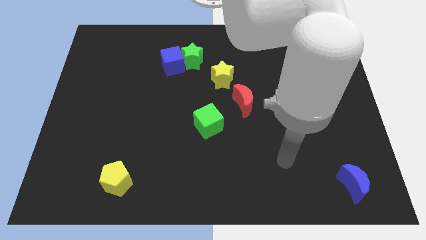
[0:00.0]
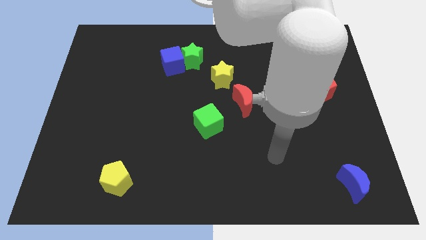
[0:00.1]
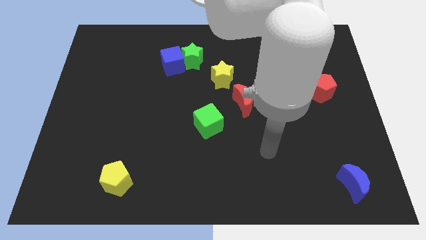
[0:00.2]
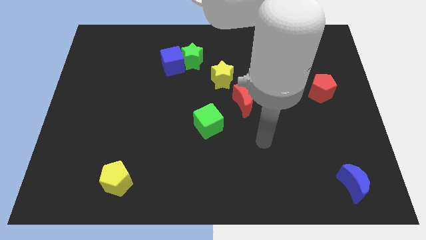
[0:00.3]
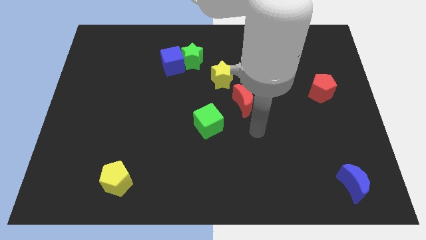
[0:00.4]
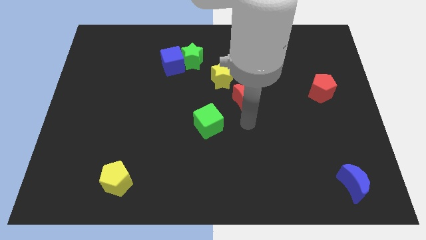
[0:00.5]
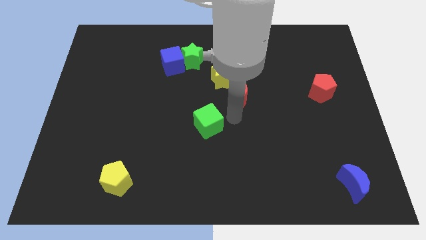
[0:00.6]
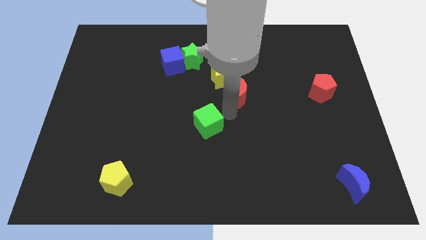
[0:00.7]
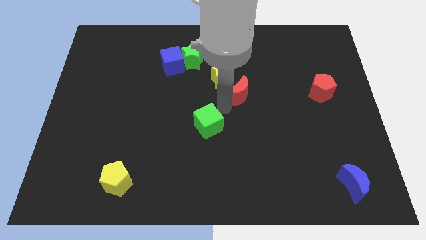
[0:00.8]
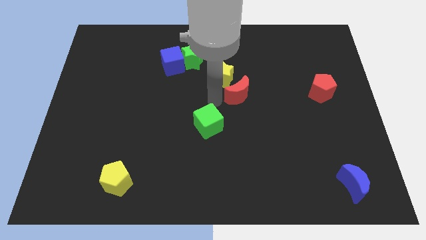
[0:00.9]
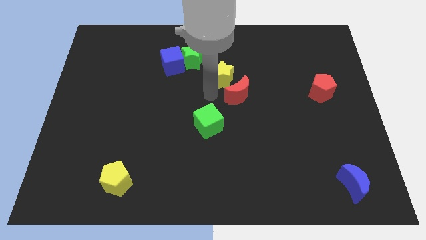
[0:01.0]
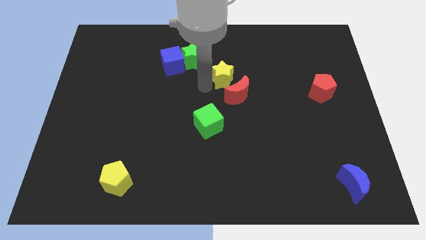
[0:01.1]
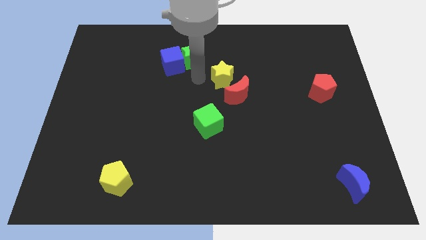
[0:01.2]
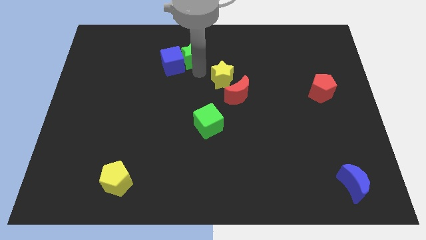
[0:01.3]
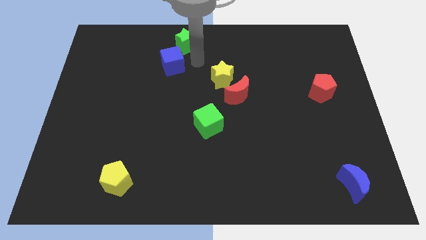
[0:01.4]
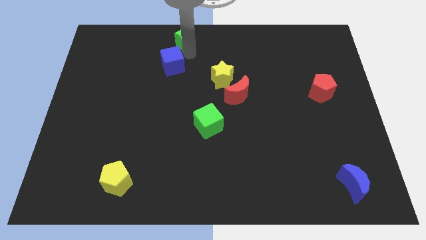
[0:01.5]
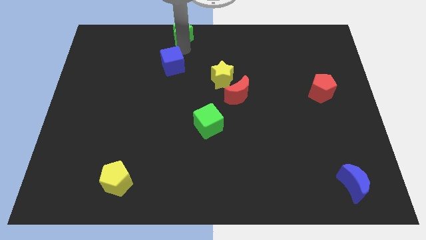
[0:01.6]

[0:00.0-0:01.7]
move the blue cube away from the green star

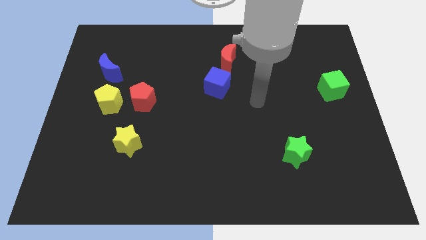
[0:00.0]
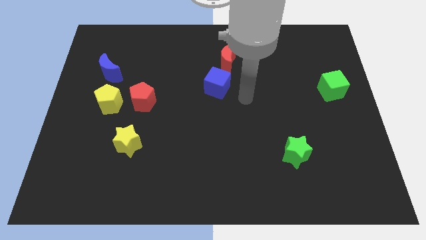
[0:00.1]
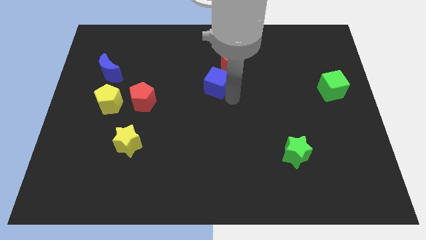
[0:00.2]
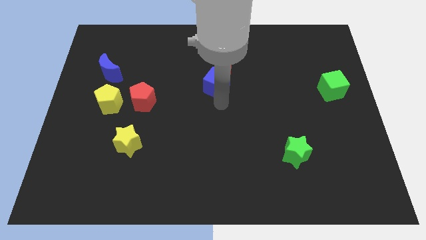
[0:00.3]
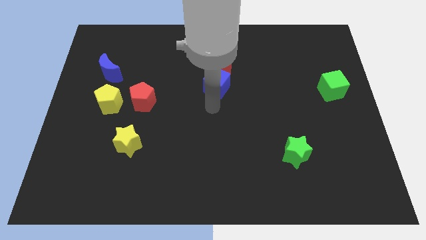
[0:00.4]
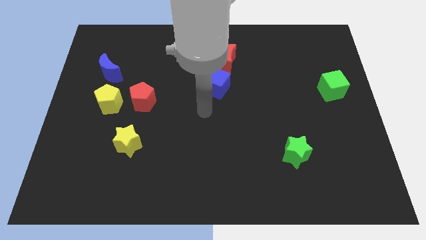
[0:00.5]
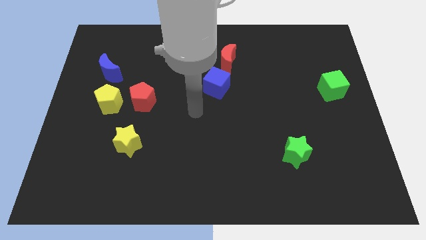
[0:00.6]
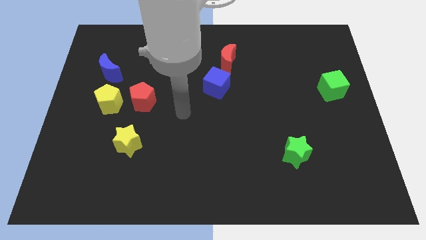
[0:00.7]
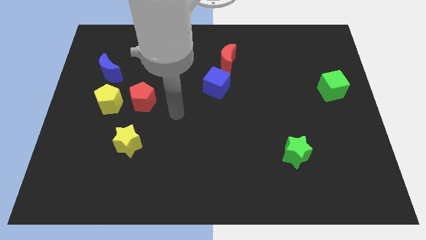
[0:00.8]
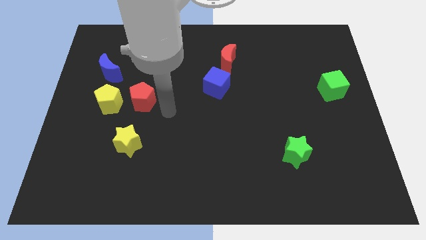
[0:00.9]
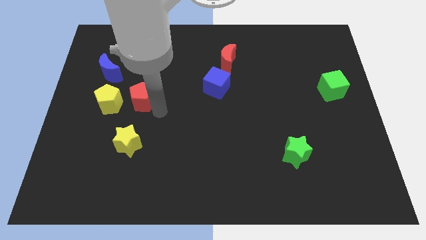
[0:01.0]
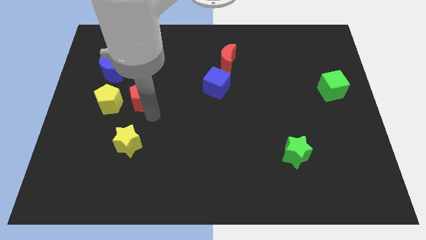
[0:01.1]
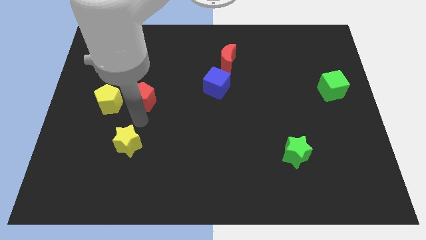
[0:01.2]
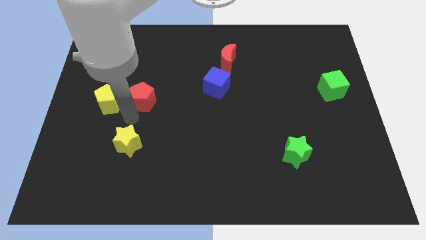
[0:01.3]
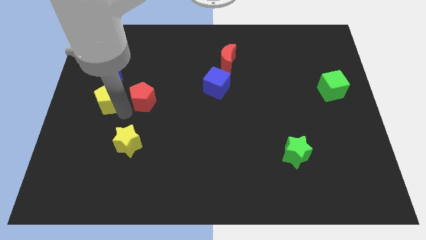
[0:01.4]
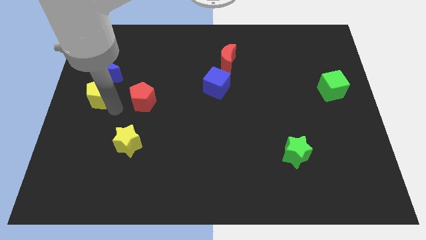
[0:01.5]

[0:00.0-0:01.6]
pull the red pentagon apart from the yellow pentagon

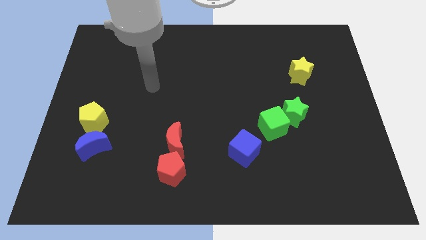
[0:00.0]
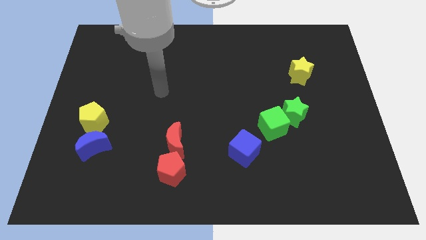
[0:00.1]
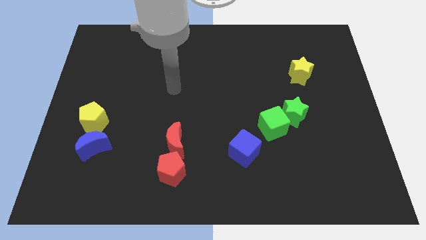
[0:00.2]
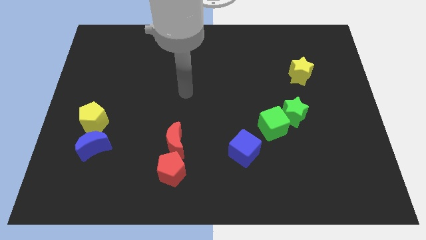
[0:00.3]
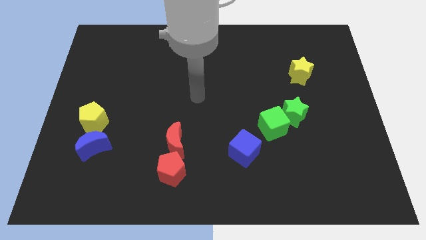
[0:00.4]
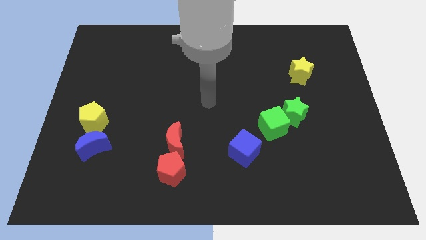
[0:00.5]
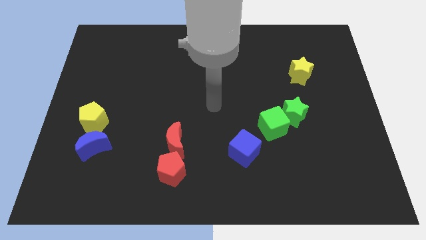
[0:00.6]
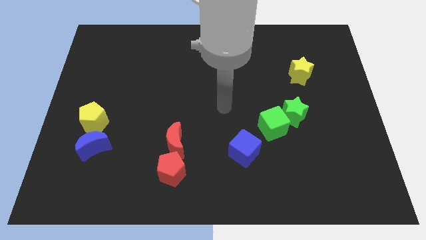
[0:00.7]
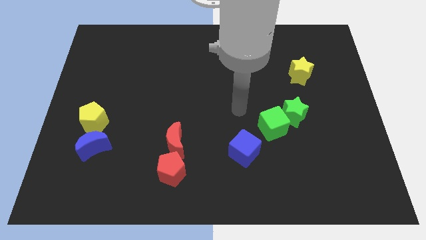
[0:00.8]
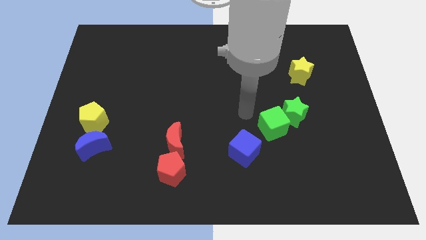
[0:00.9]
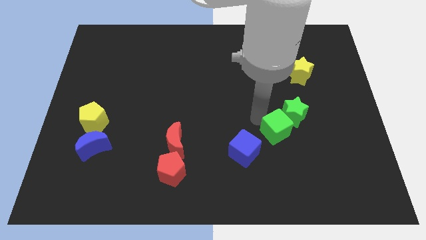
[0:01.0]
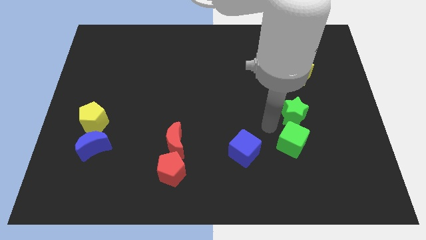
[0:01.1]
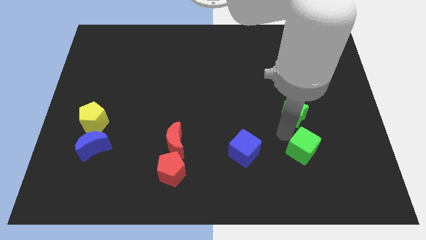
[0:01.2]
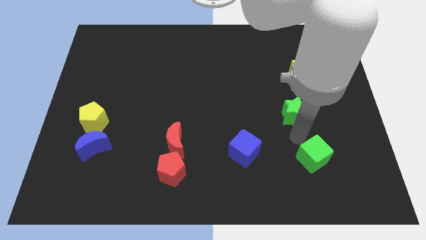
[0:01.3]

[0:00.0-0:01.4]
pull the green star apart from the green cube

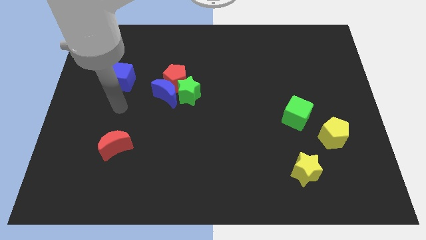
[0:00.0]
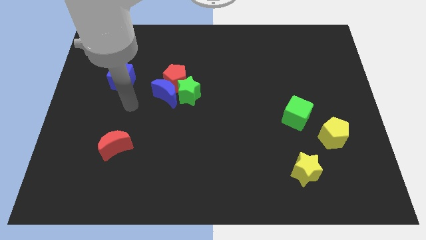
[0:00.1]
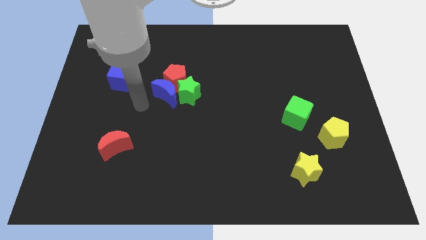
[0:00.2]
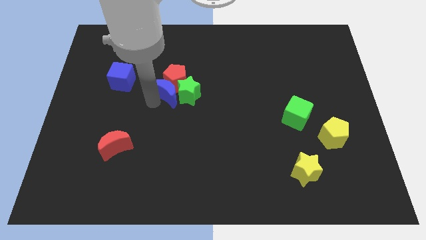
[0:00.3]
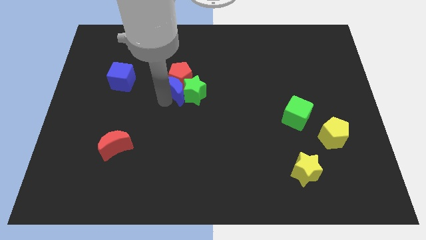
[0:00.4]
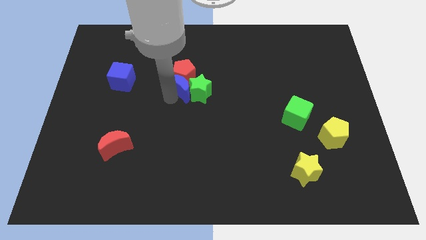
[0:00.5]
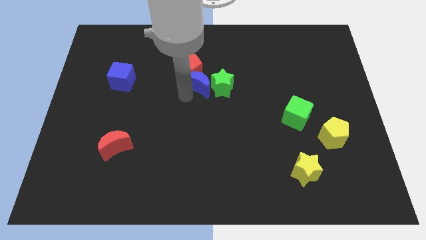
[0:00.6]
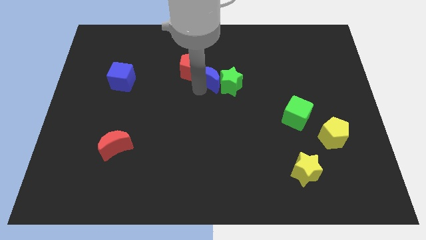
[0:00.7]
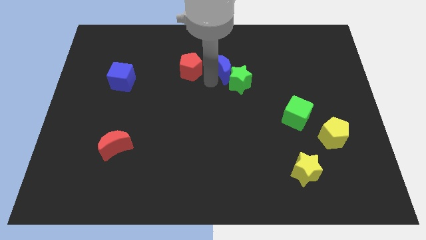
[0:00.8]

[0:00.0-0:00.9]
move the red pentagon away from the blue moon and green star

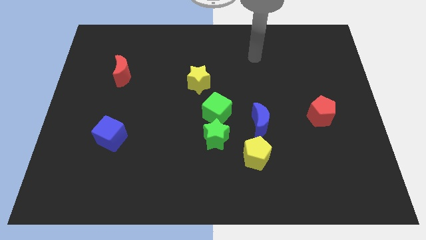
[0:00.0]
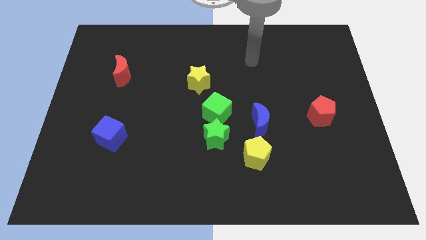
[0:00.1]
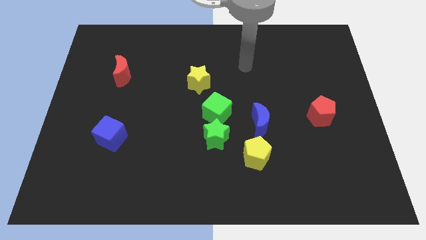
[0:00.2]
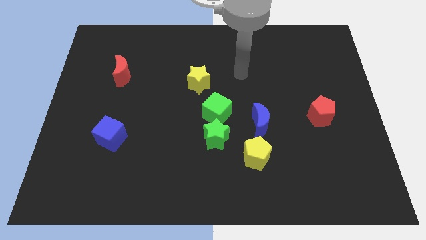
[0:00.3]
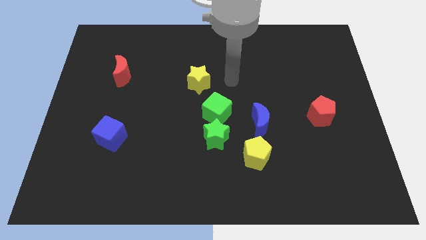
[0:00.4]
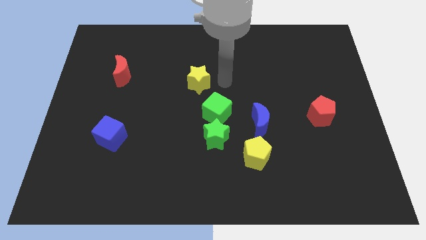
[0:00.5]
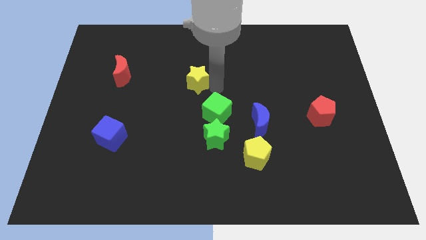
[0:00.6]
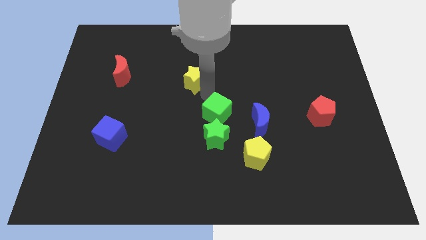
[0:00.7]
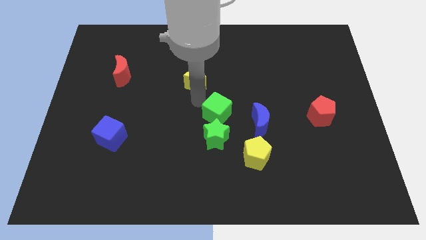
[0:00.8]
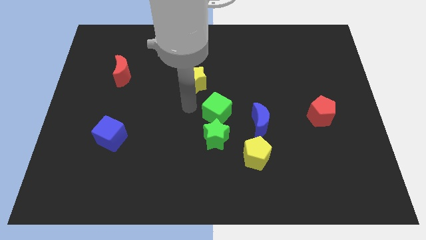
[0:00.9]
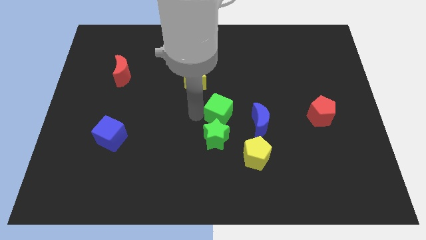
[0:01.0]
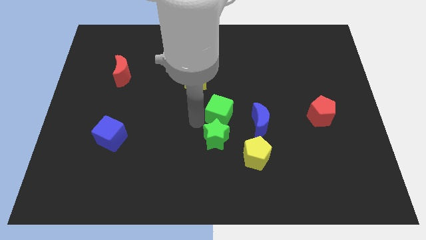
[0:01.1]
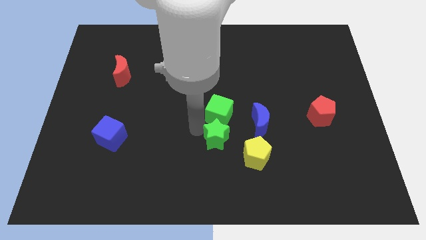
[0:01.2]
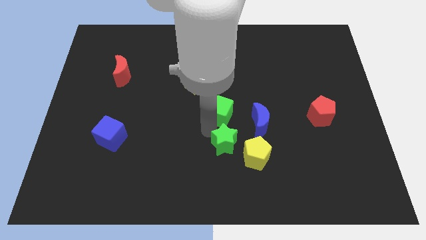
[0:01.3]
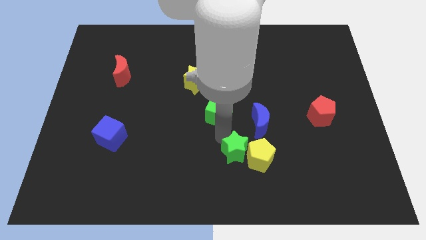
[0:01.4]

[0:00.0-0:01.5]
separate the green cube from the green star

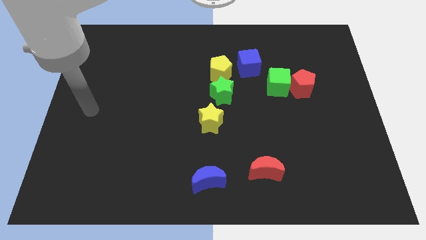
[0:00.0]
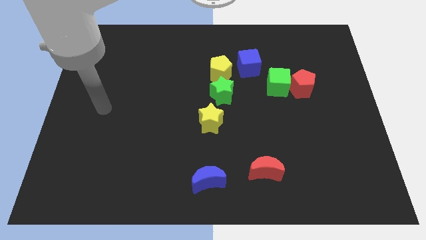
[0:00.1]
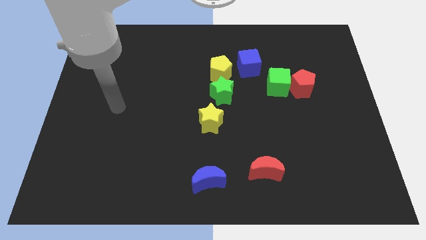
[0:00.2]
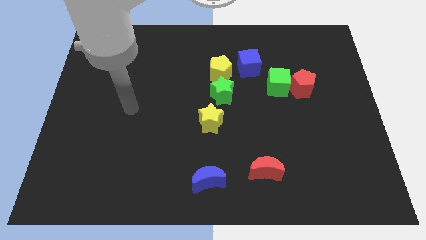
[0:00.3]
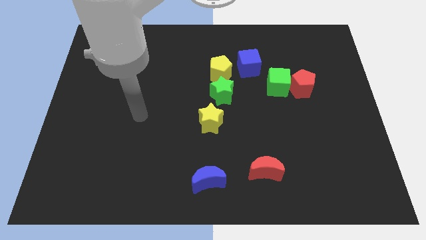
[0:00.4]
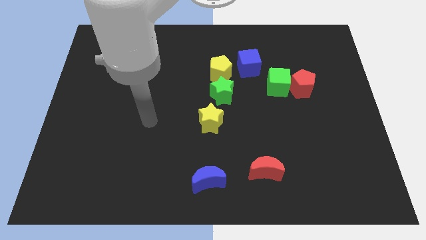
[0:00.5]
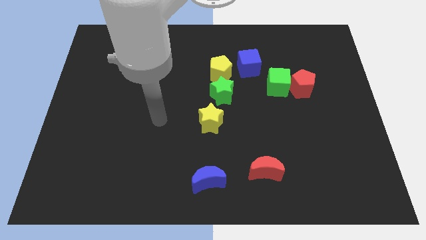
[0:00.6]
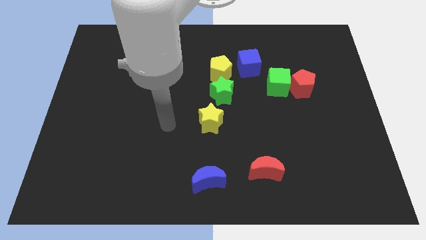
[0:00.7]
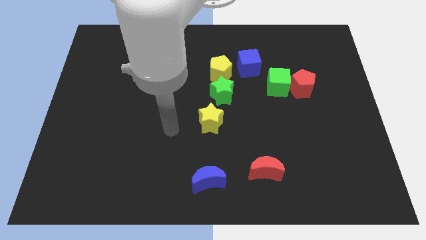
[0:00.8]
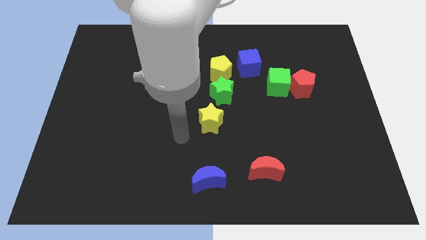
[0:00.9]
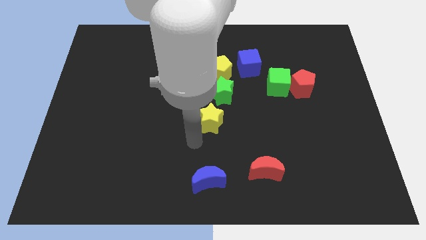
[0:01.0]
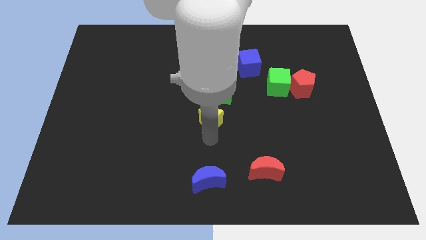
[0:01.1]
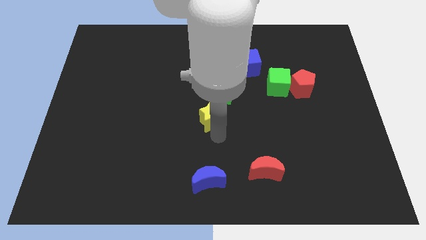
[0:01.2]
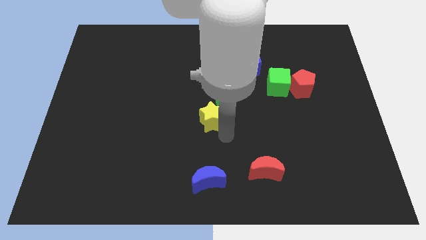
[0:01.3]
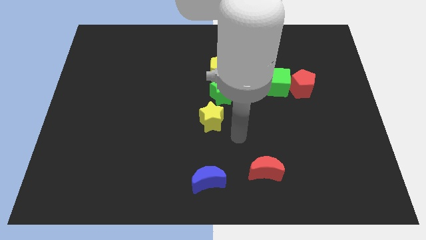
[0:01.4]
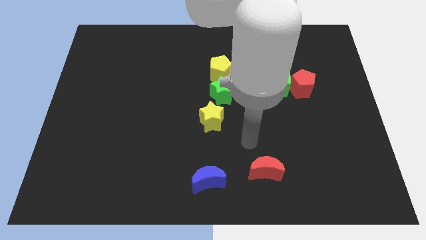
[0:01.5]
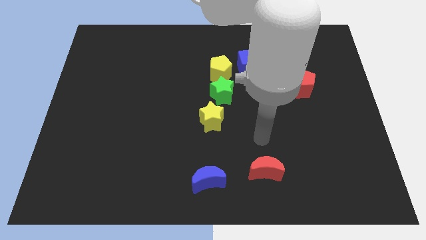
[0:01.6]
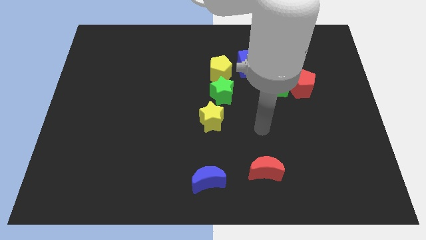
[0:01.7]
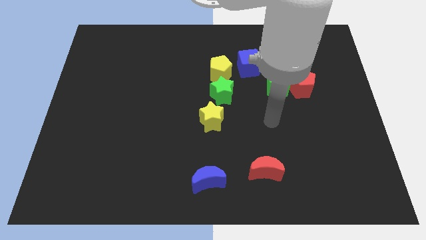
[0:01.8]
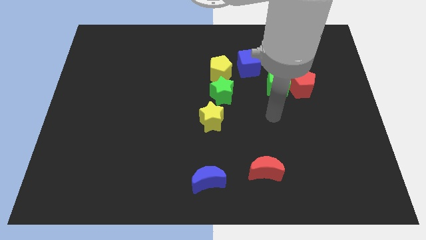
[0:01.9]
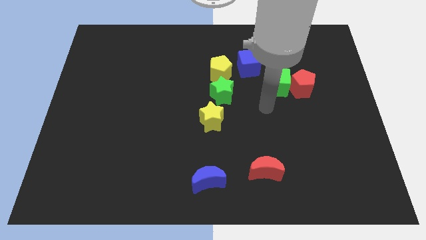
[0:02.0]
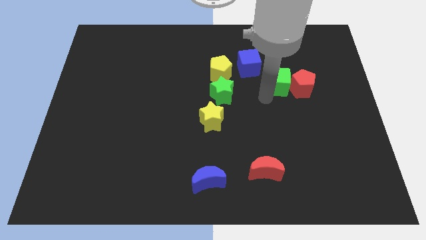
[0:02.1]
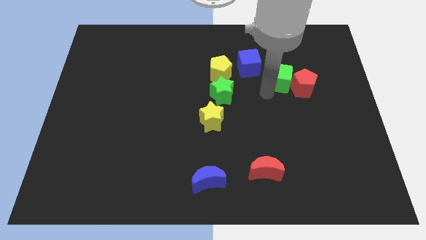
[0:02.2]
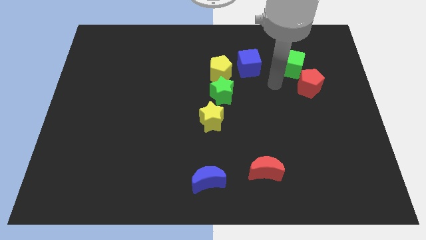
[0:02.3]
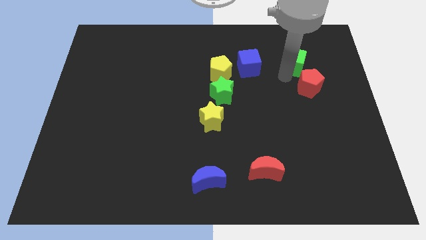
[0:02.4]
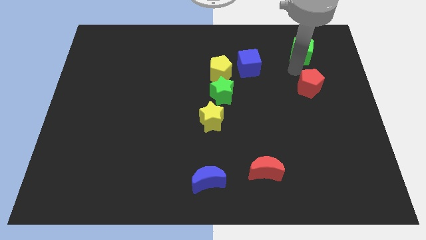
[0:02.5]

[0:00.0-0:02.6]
separate the red pentagon from the green cube
